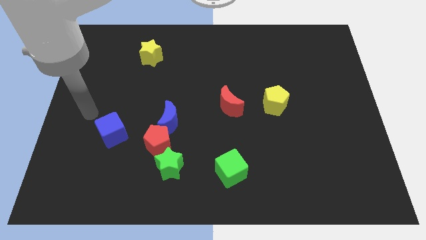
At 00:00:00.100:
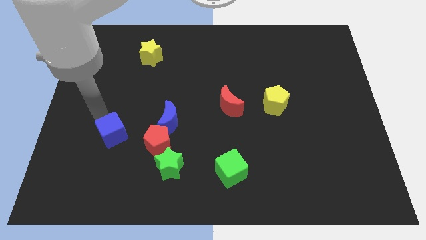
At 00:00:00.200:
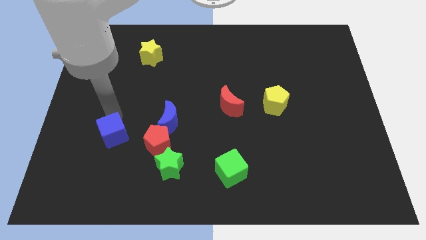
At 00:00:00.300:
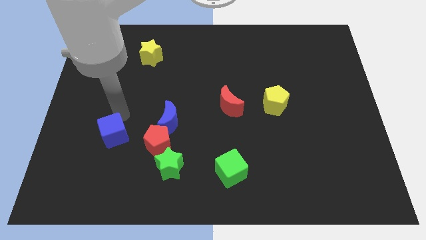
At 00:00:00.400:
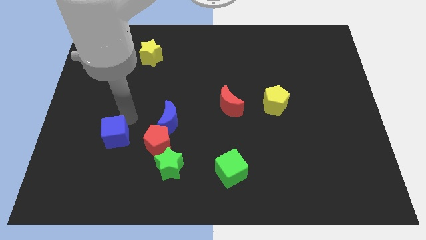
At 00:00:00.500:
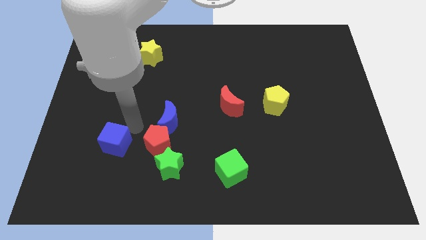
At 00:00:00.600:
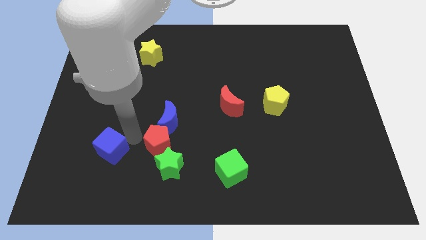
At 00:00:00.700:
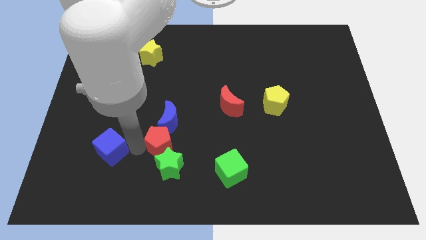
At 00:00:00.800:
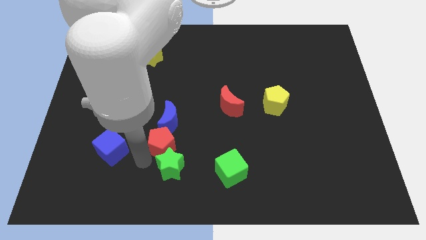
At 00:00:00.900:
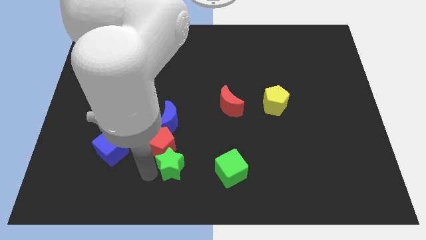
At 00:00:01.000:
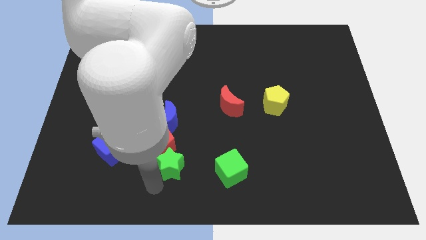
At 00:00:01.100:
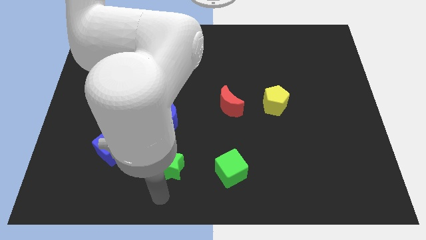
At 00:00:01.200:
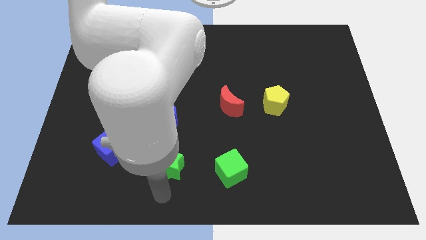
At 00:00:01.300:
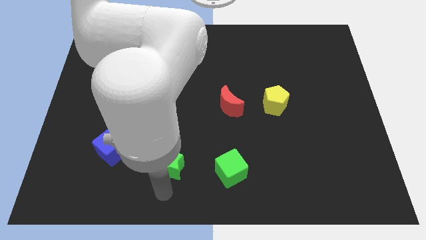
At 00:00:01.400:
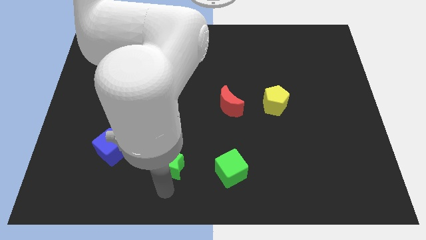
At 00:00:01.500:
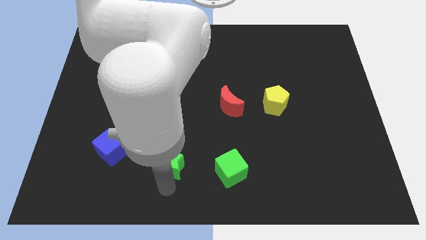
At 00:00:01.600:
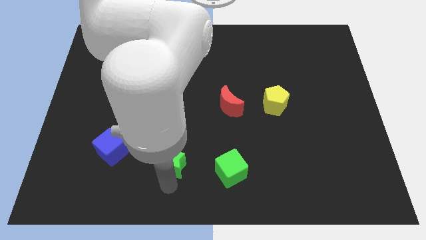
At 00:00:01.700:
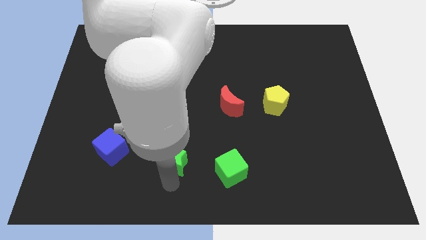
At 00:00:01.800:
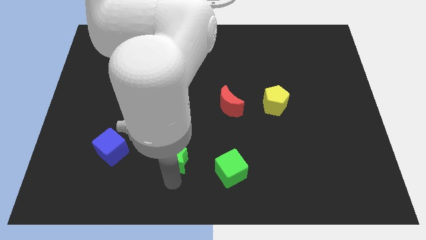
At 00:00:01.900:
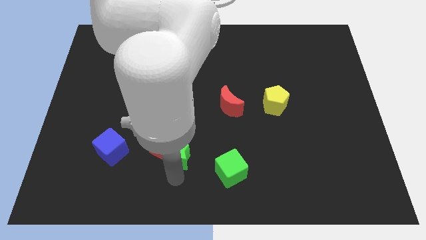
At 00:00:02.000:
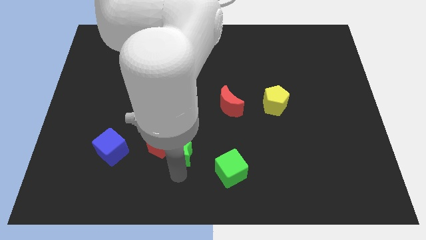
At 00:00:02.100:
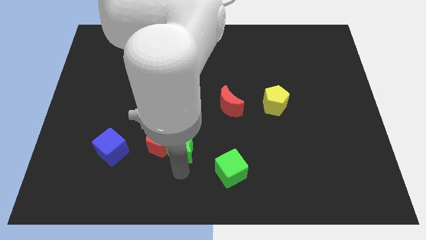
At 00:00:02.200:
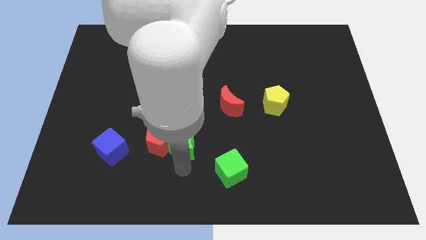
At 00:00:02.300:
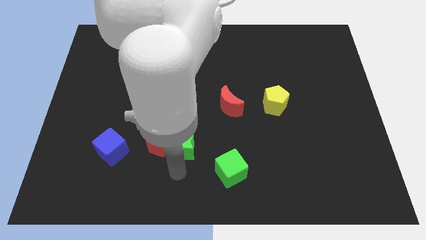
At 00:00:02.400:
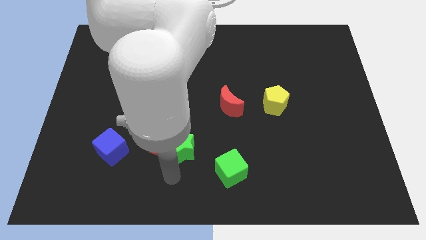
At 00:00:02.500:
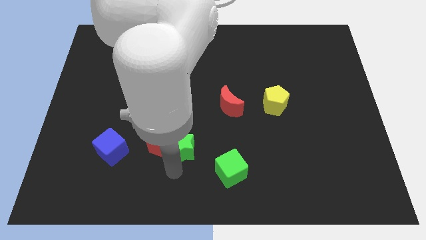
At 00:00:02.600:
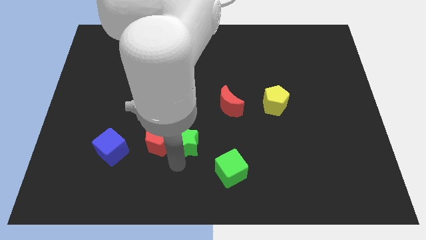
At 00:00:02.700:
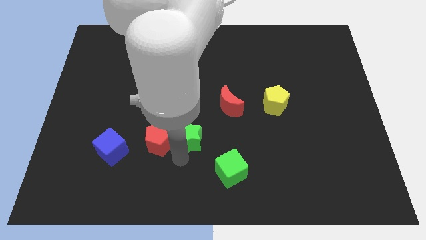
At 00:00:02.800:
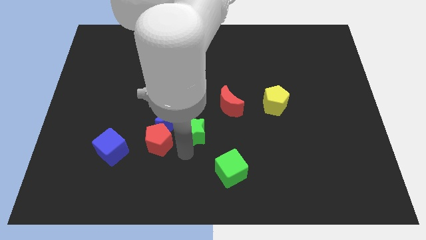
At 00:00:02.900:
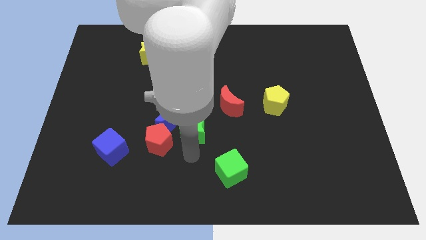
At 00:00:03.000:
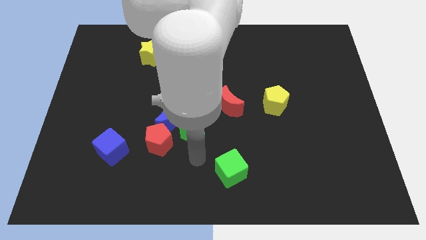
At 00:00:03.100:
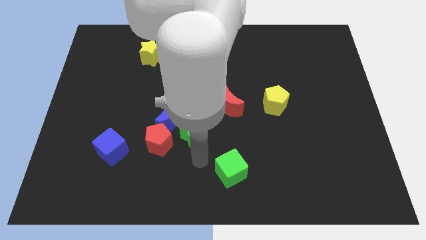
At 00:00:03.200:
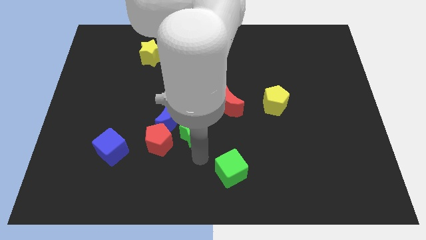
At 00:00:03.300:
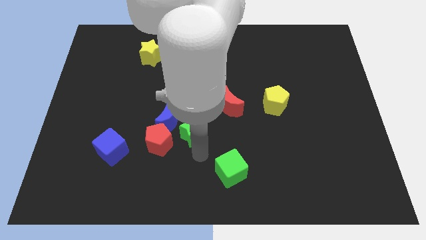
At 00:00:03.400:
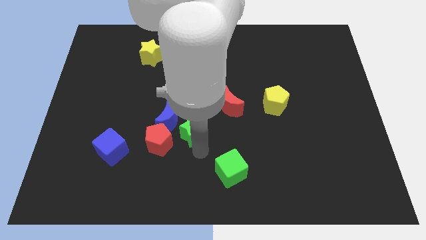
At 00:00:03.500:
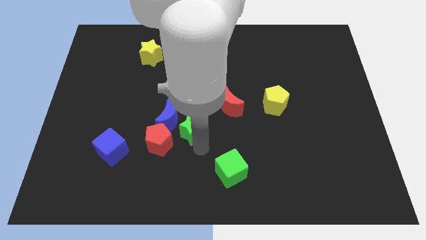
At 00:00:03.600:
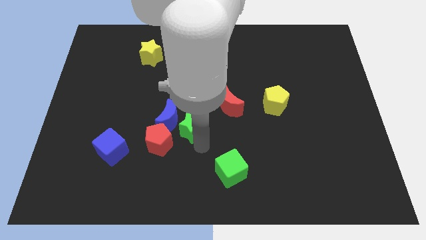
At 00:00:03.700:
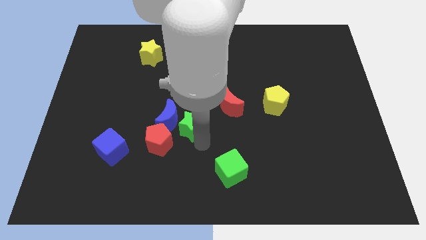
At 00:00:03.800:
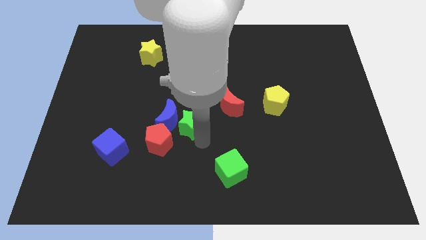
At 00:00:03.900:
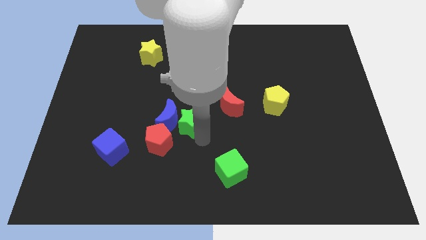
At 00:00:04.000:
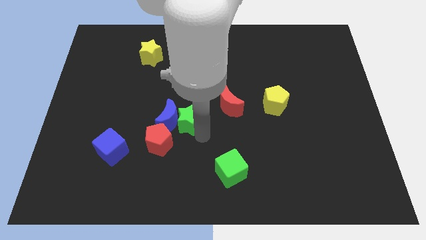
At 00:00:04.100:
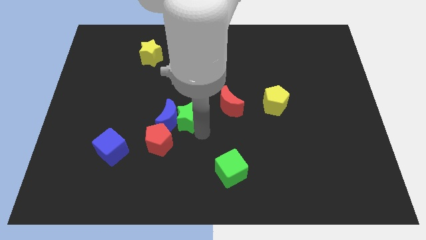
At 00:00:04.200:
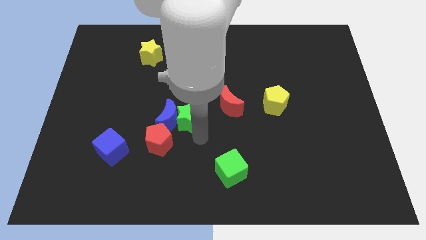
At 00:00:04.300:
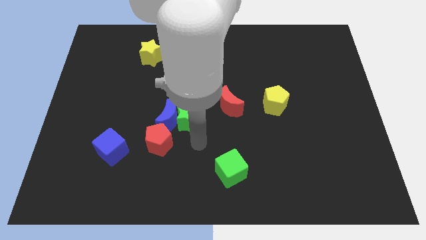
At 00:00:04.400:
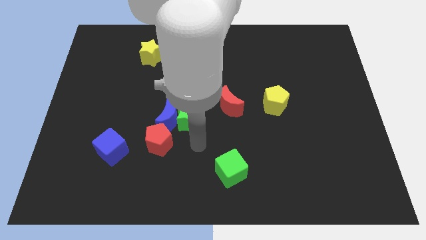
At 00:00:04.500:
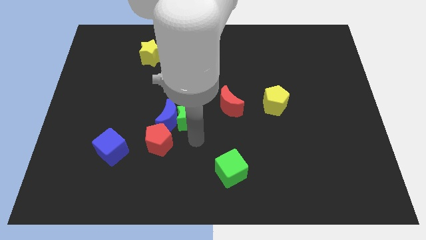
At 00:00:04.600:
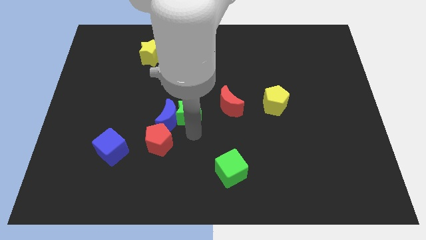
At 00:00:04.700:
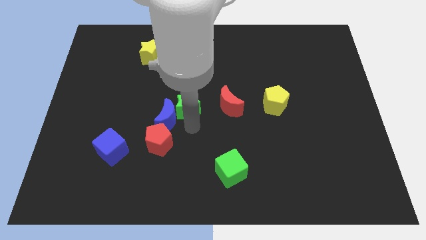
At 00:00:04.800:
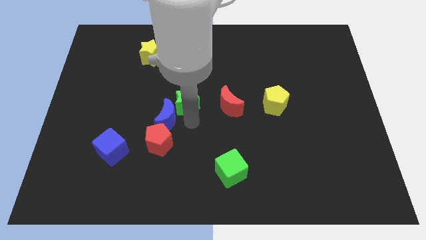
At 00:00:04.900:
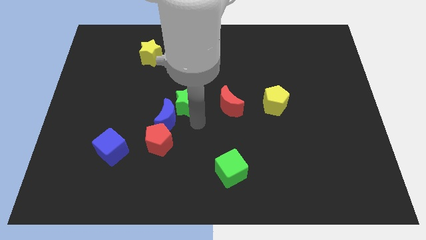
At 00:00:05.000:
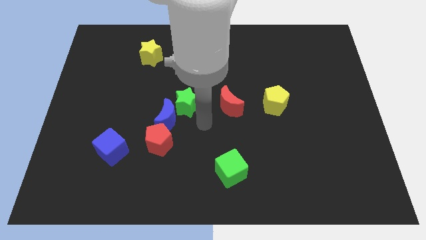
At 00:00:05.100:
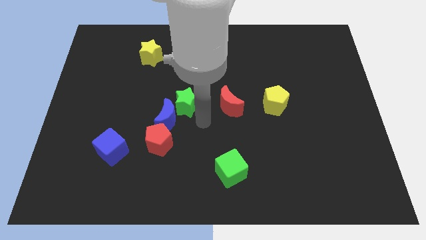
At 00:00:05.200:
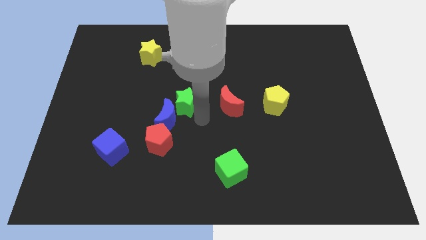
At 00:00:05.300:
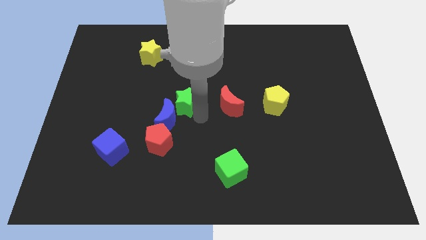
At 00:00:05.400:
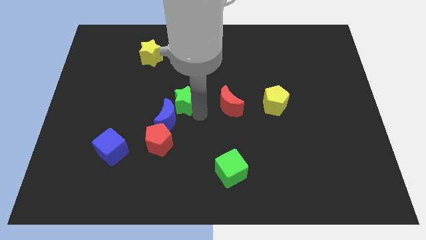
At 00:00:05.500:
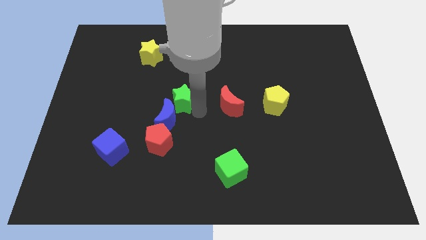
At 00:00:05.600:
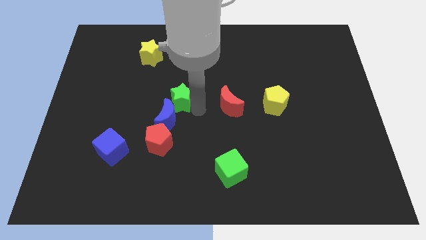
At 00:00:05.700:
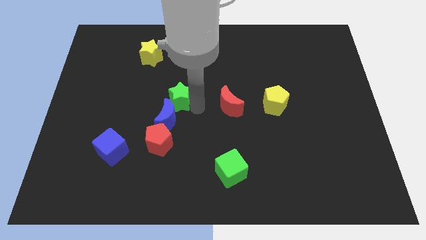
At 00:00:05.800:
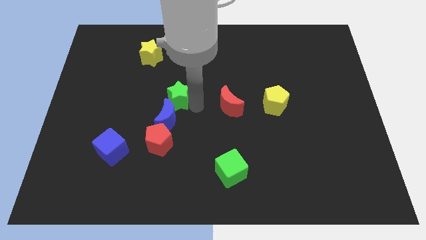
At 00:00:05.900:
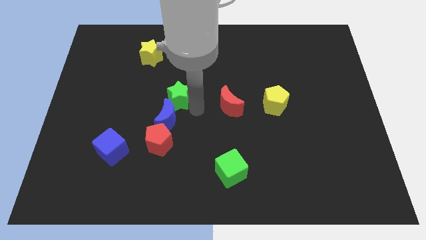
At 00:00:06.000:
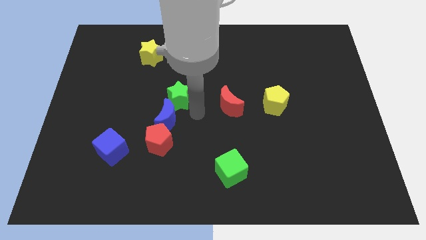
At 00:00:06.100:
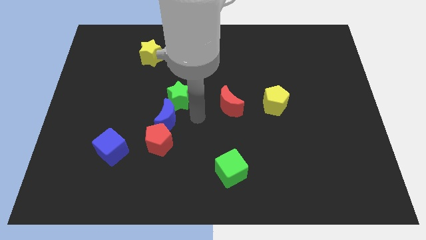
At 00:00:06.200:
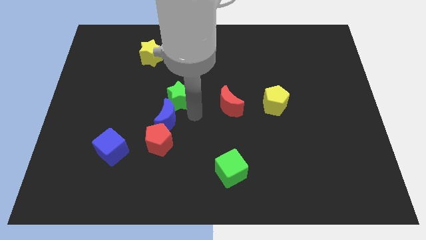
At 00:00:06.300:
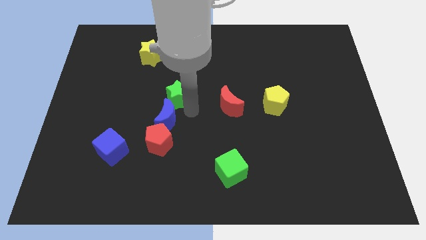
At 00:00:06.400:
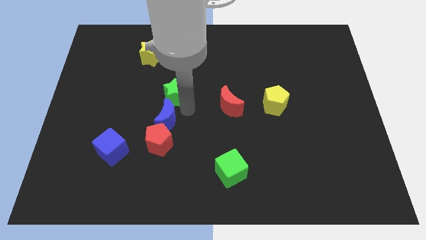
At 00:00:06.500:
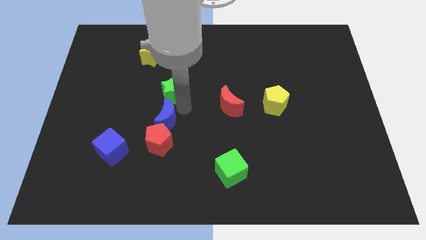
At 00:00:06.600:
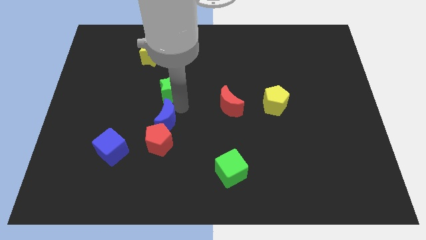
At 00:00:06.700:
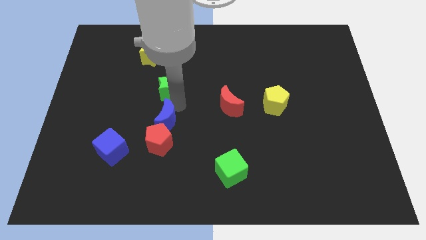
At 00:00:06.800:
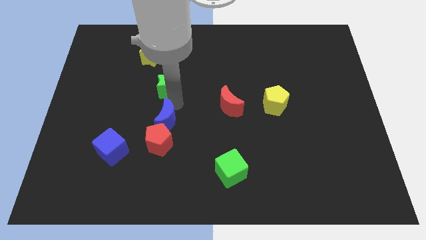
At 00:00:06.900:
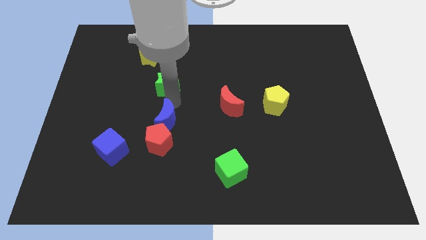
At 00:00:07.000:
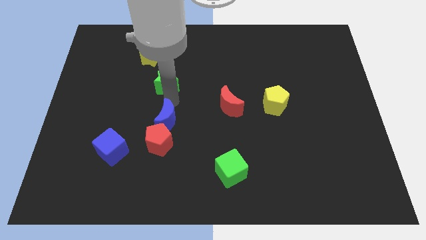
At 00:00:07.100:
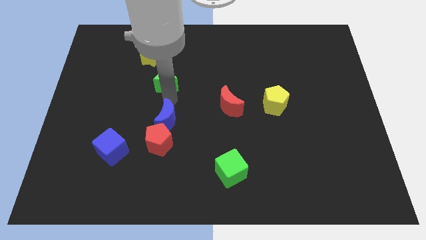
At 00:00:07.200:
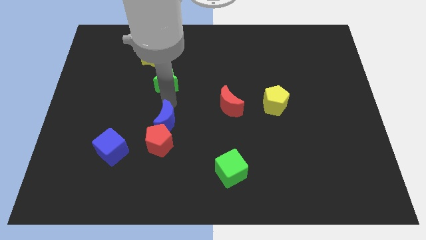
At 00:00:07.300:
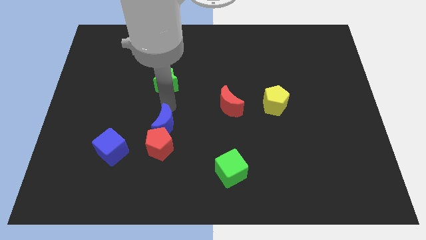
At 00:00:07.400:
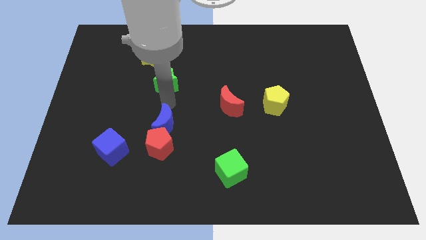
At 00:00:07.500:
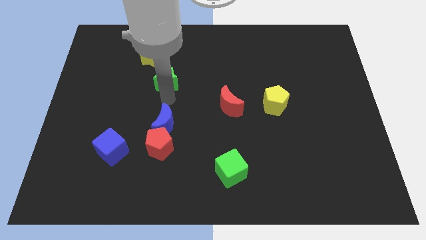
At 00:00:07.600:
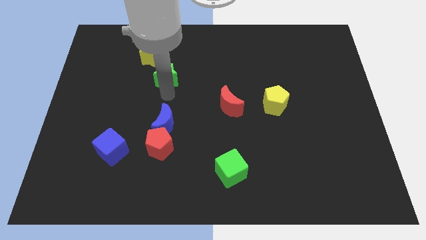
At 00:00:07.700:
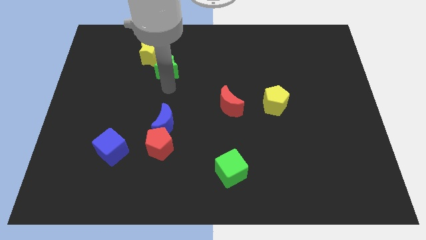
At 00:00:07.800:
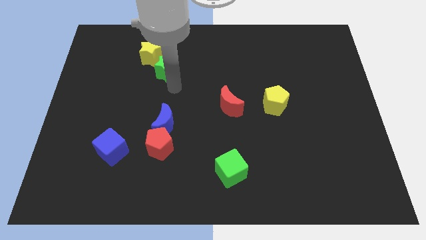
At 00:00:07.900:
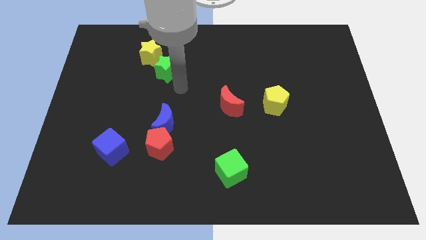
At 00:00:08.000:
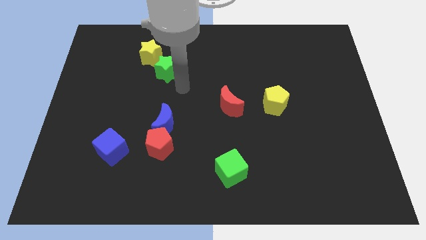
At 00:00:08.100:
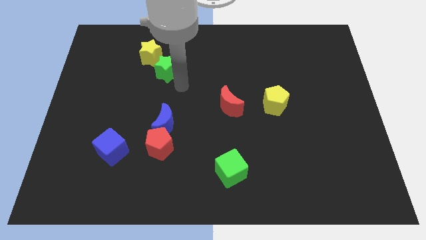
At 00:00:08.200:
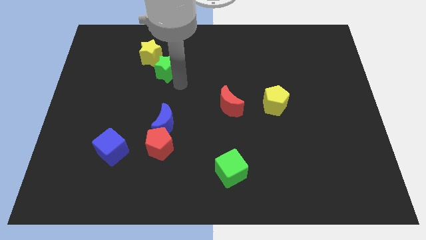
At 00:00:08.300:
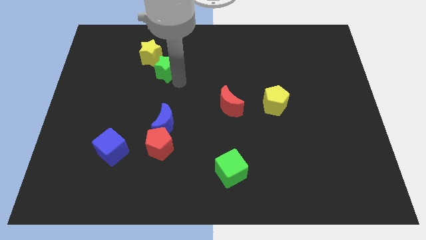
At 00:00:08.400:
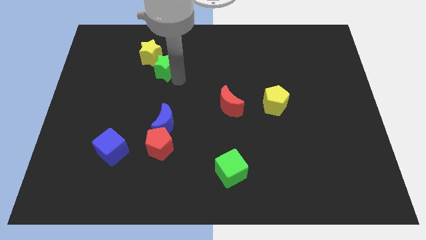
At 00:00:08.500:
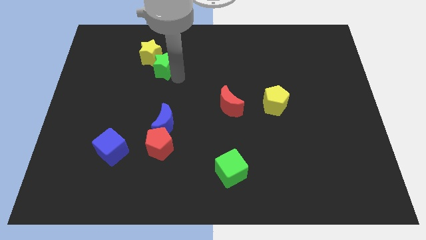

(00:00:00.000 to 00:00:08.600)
move the green star close to the yellow star
